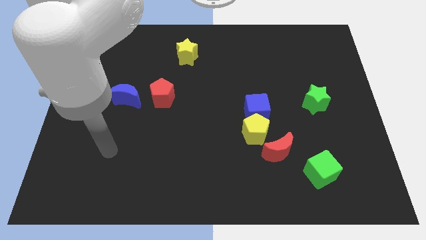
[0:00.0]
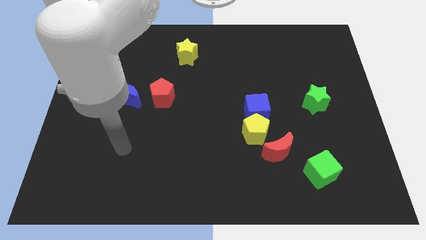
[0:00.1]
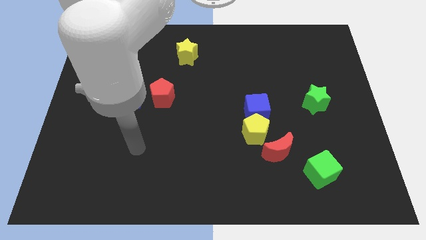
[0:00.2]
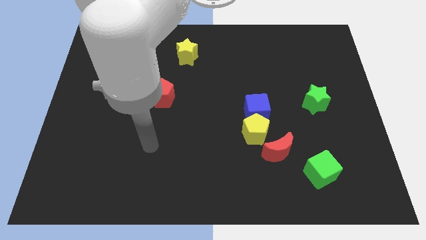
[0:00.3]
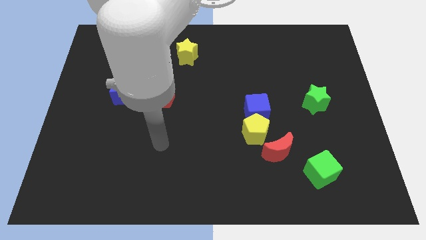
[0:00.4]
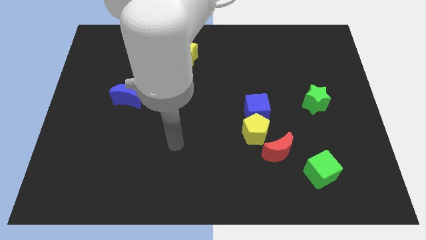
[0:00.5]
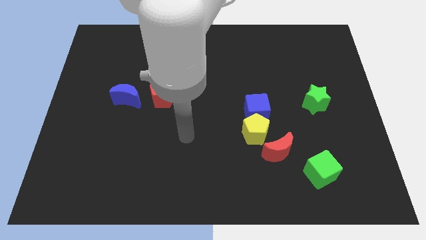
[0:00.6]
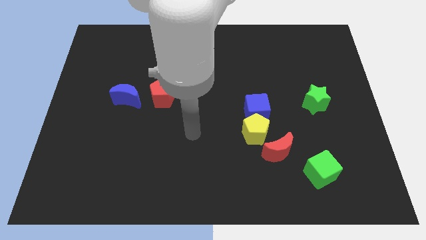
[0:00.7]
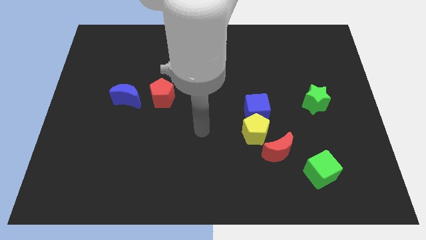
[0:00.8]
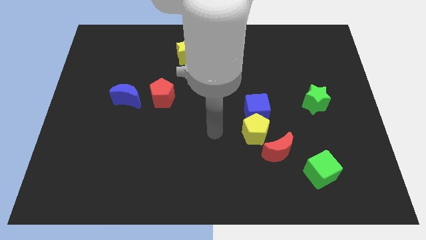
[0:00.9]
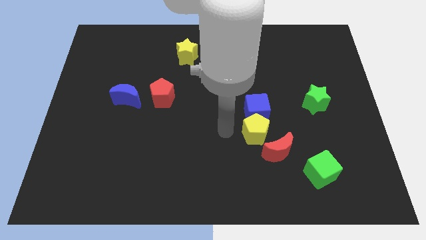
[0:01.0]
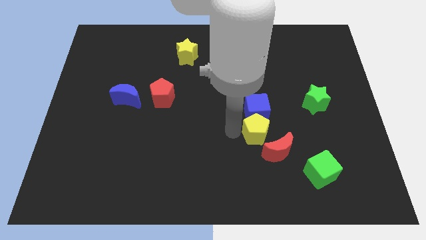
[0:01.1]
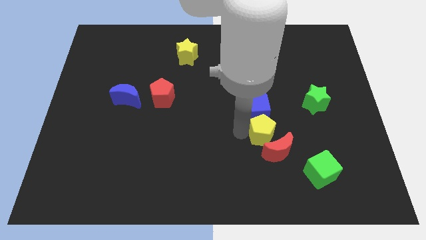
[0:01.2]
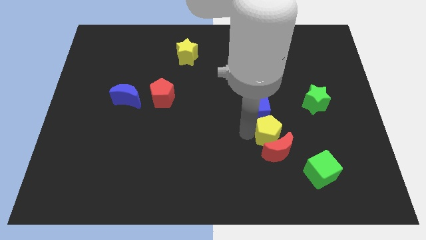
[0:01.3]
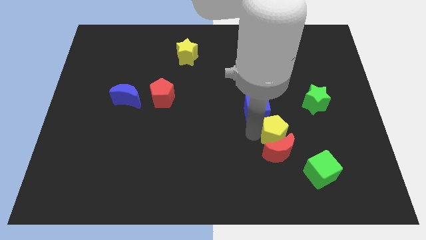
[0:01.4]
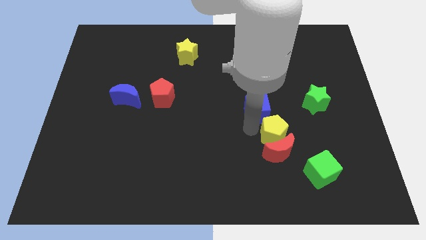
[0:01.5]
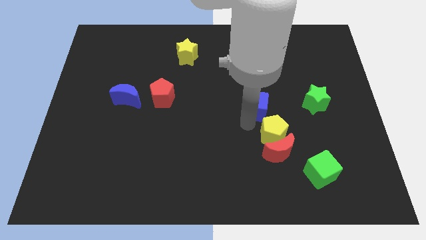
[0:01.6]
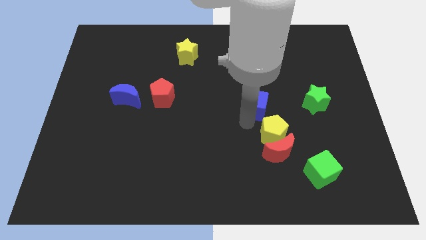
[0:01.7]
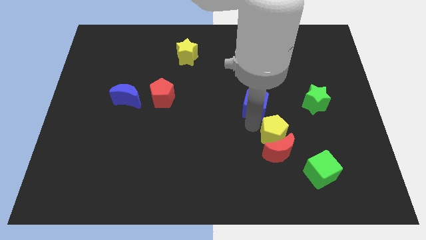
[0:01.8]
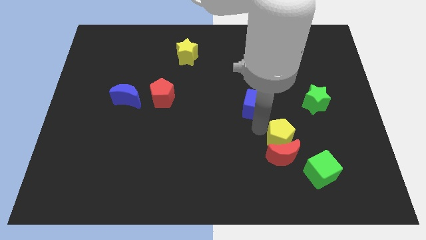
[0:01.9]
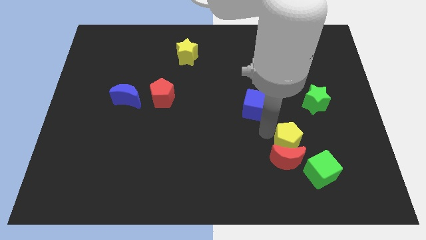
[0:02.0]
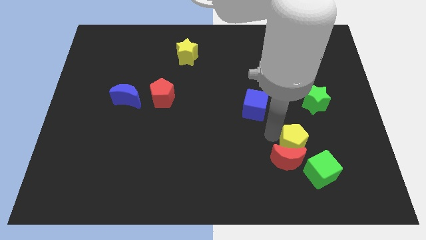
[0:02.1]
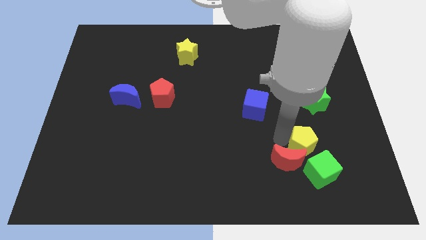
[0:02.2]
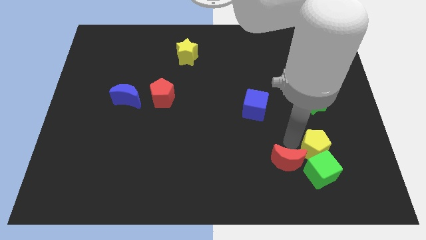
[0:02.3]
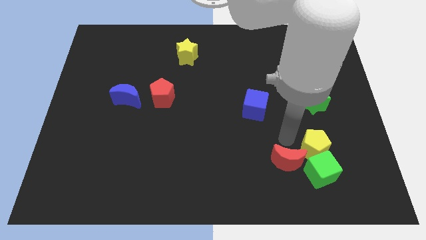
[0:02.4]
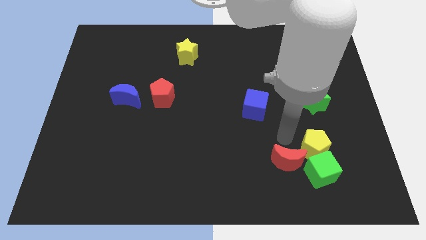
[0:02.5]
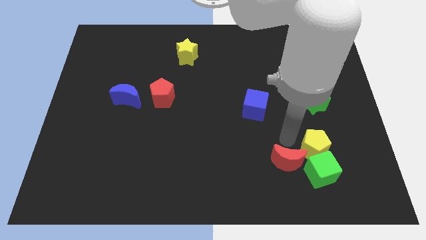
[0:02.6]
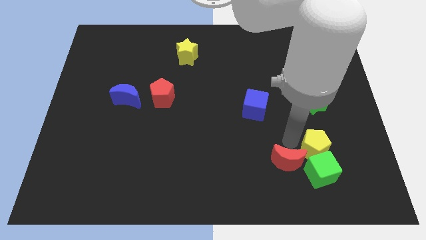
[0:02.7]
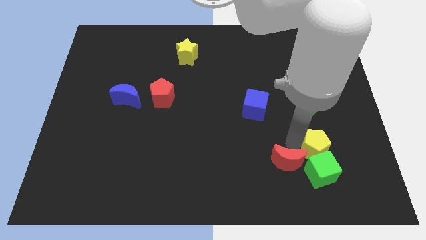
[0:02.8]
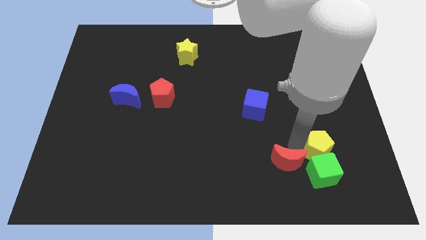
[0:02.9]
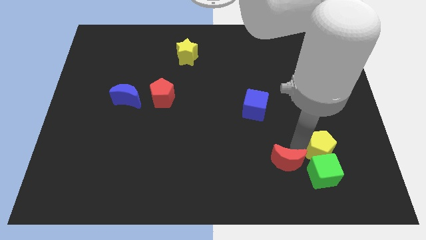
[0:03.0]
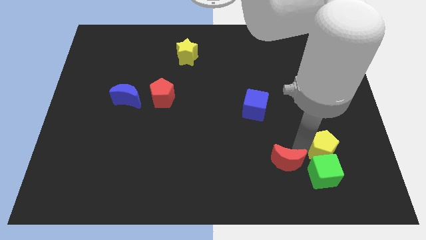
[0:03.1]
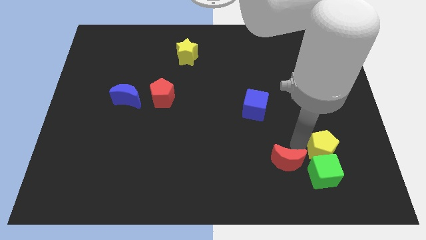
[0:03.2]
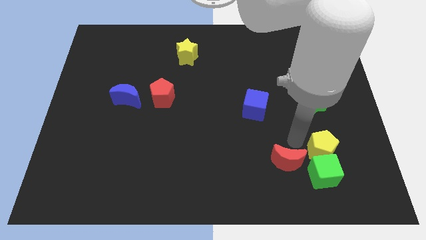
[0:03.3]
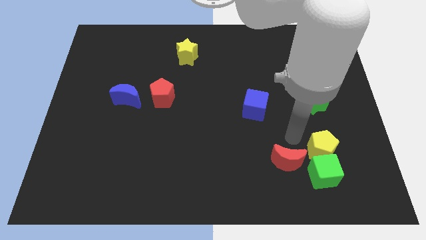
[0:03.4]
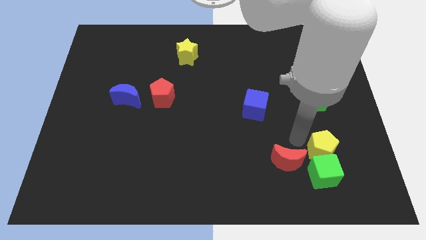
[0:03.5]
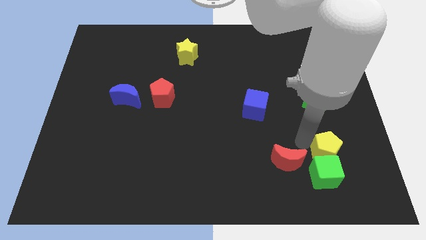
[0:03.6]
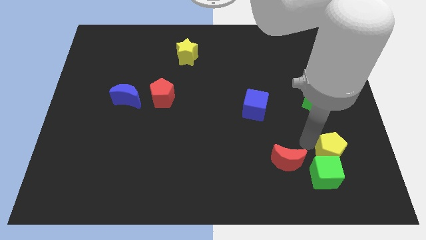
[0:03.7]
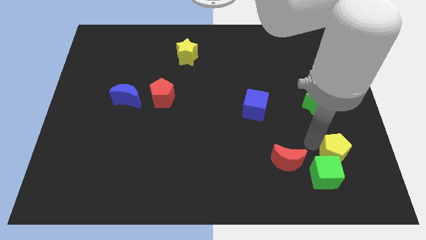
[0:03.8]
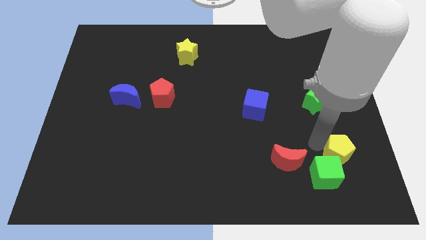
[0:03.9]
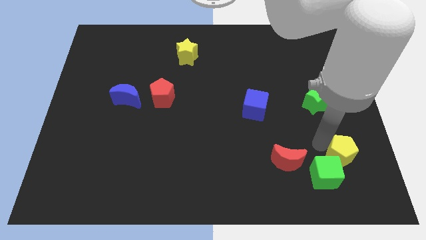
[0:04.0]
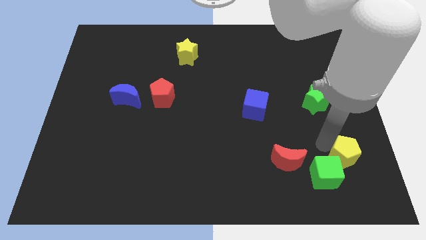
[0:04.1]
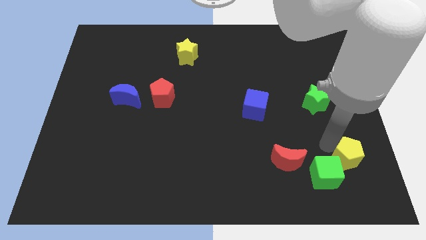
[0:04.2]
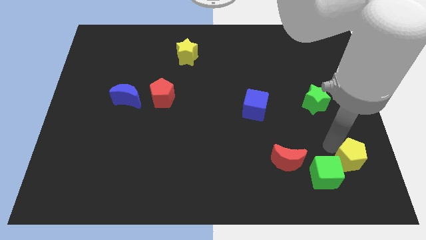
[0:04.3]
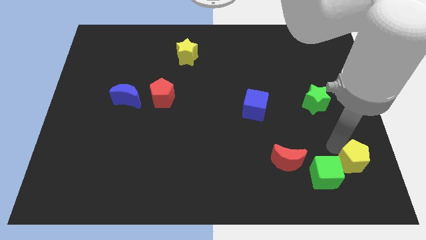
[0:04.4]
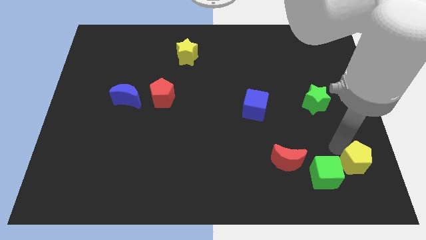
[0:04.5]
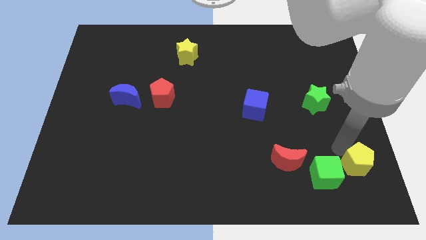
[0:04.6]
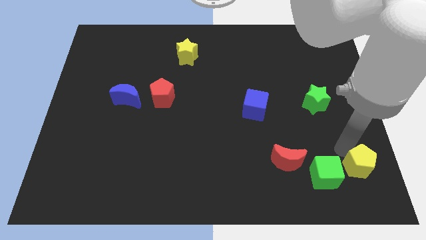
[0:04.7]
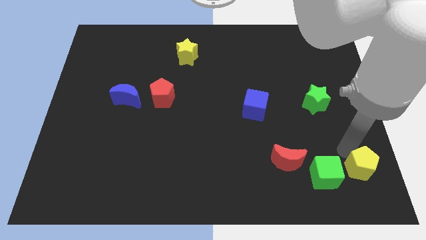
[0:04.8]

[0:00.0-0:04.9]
push the yellow pentagon to the bottom right of the board

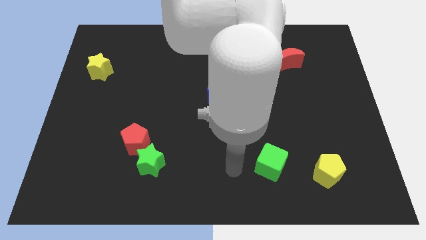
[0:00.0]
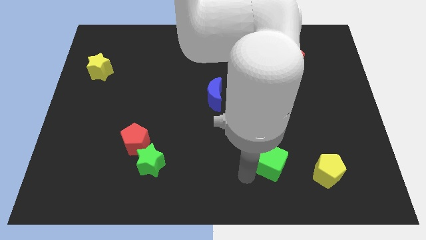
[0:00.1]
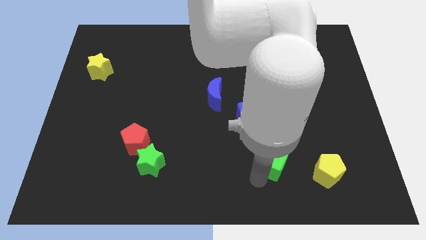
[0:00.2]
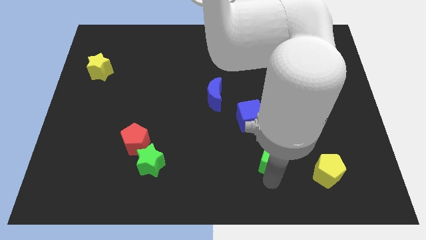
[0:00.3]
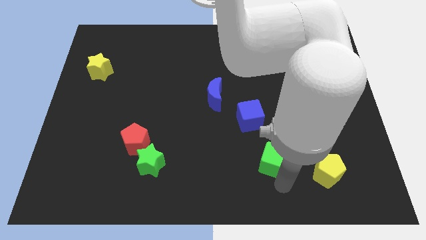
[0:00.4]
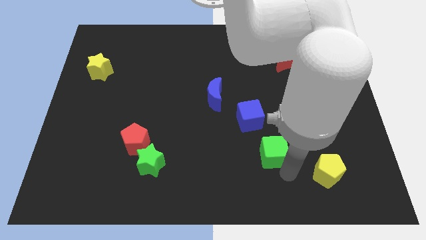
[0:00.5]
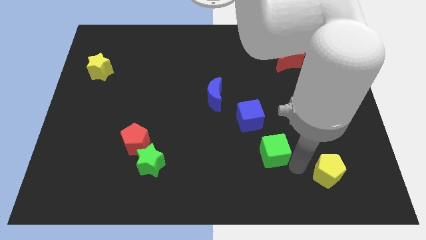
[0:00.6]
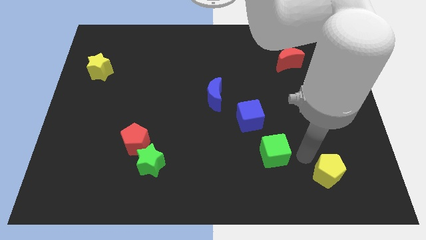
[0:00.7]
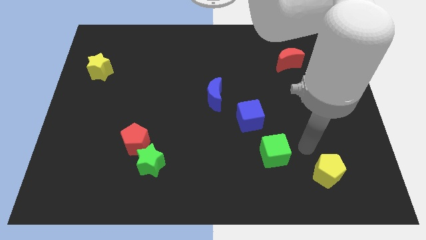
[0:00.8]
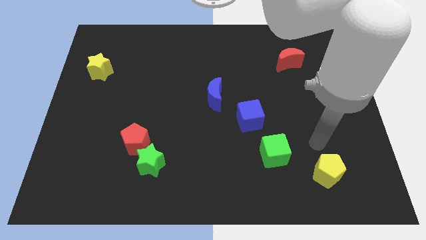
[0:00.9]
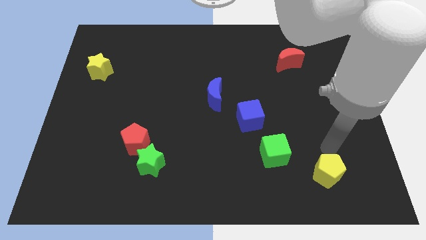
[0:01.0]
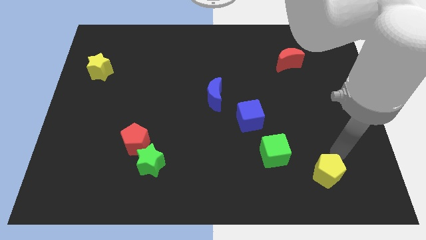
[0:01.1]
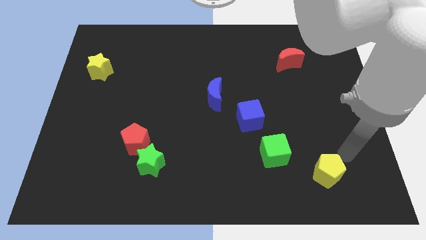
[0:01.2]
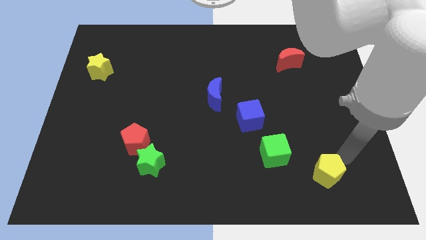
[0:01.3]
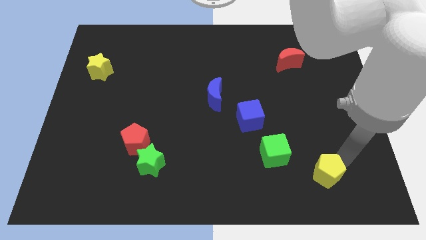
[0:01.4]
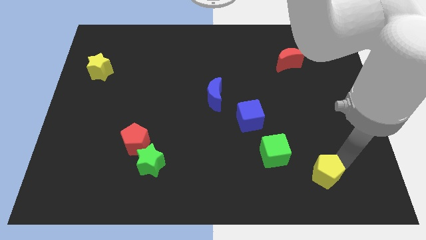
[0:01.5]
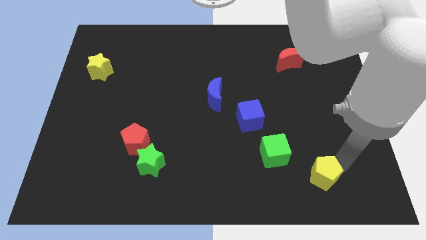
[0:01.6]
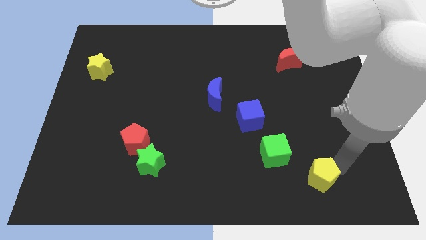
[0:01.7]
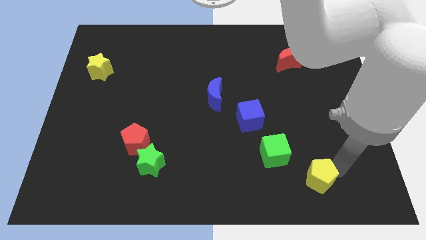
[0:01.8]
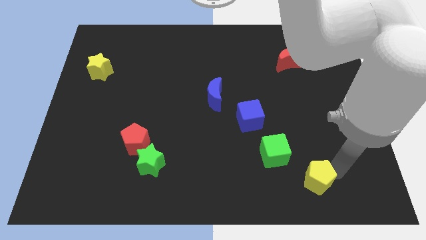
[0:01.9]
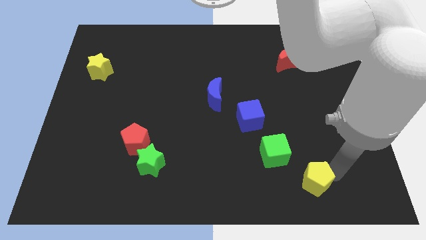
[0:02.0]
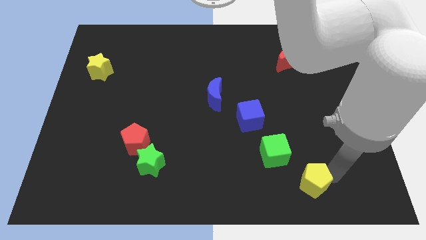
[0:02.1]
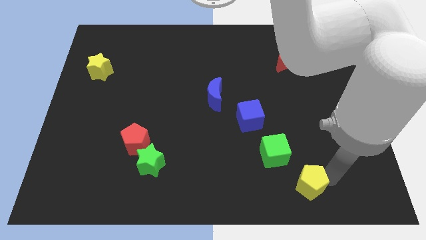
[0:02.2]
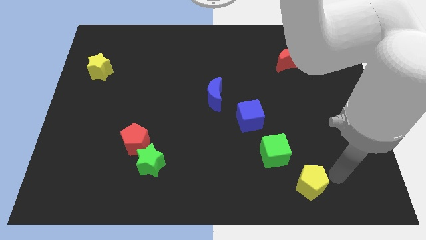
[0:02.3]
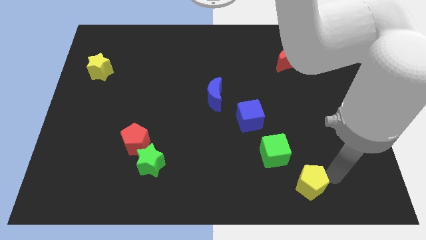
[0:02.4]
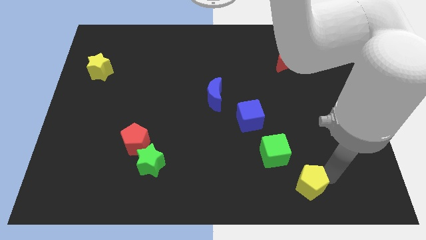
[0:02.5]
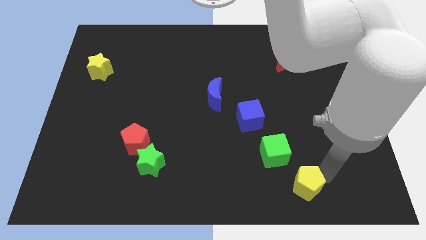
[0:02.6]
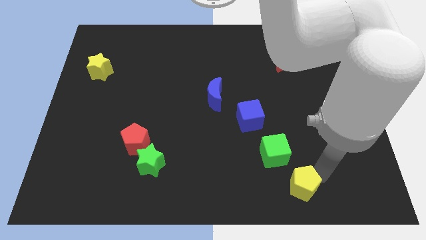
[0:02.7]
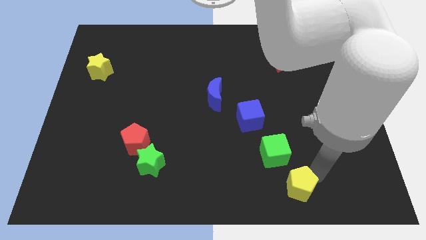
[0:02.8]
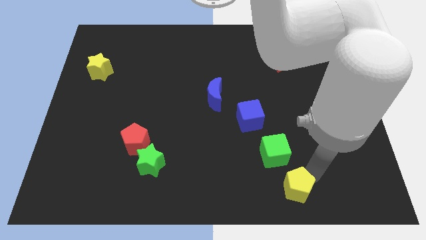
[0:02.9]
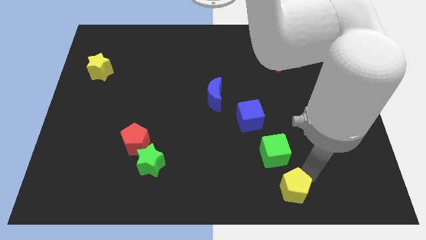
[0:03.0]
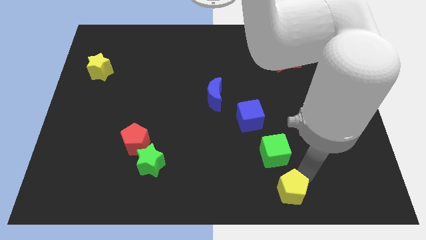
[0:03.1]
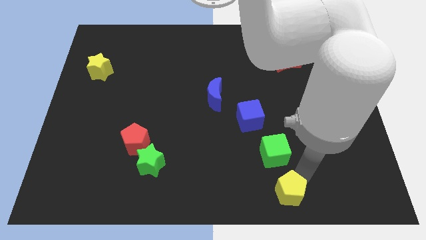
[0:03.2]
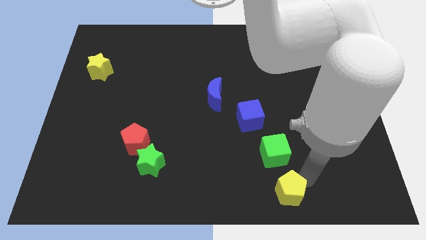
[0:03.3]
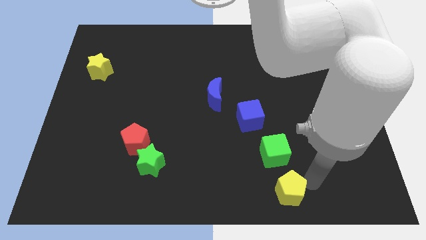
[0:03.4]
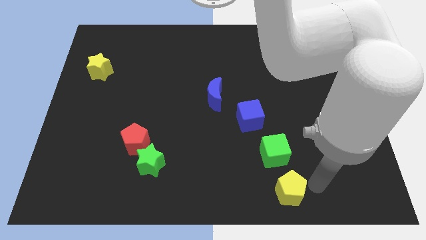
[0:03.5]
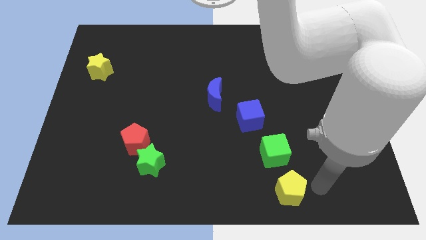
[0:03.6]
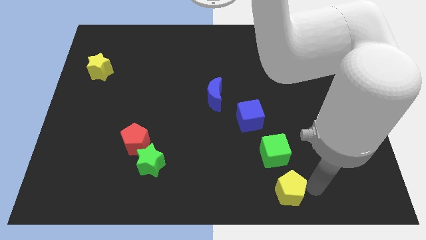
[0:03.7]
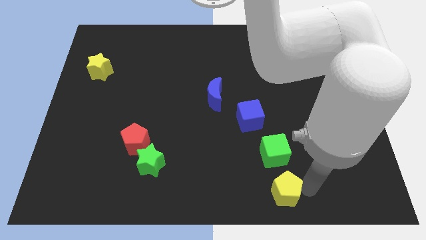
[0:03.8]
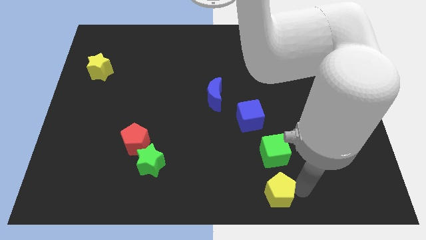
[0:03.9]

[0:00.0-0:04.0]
put the yellow pentagon to the bottom side
